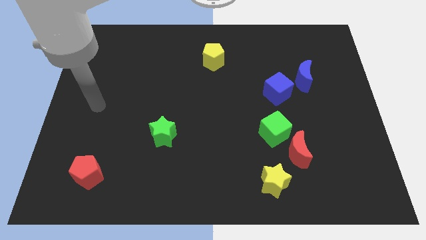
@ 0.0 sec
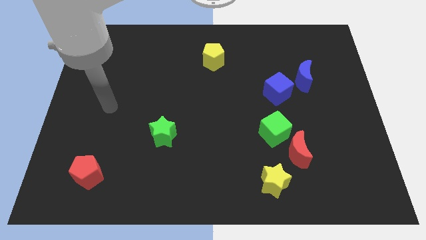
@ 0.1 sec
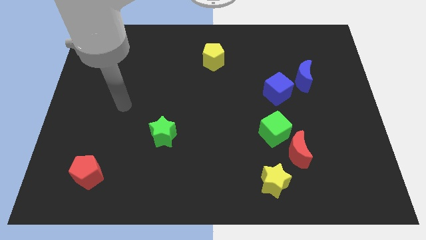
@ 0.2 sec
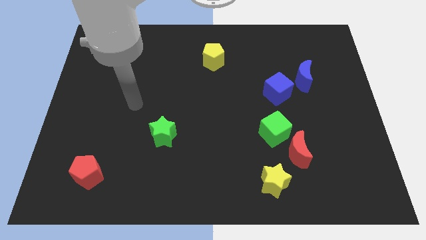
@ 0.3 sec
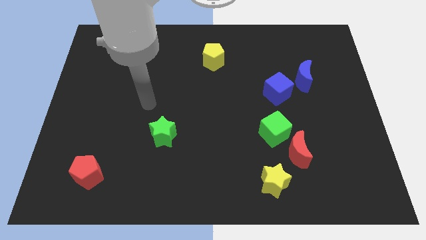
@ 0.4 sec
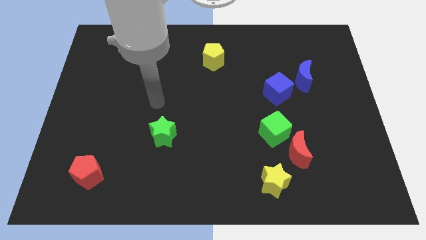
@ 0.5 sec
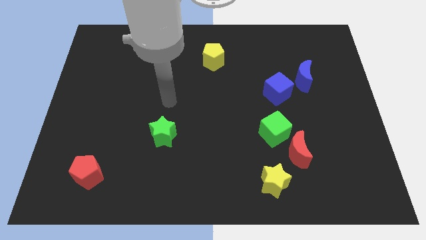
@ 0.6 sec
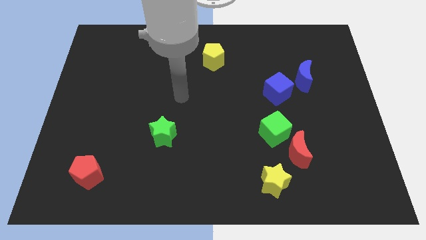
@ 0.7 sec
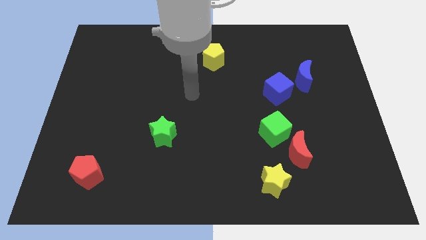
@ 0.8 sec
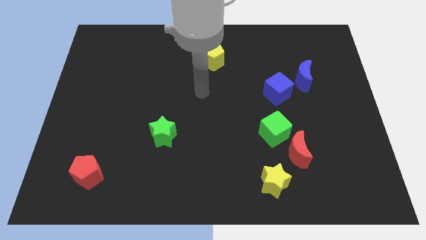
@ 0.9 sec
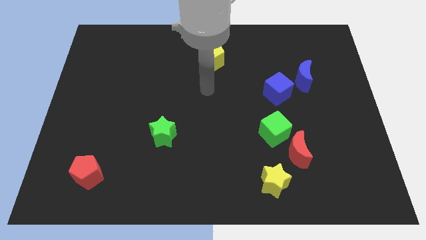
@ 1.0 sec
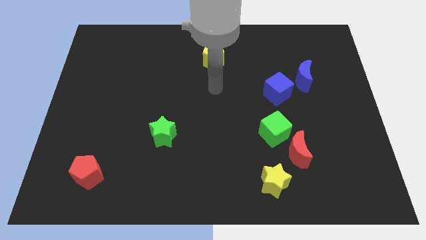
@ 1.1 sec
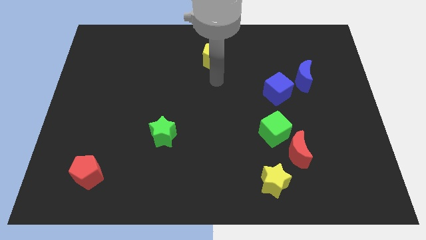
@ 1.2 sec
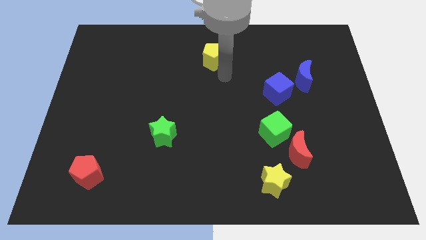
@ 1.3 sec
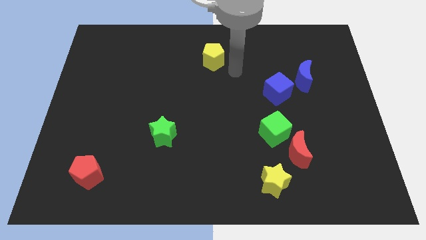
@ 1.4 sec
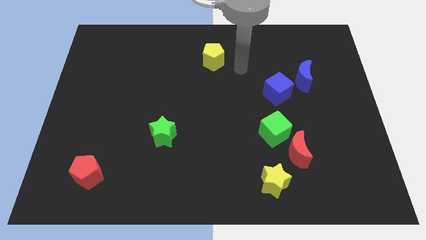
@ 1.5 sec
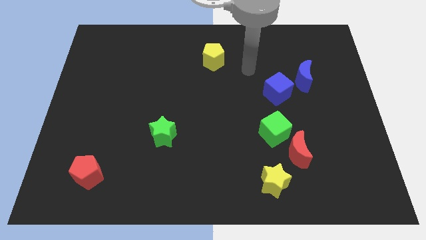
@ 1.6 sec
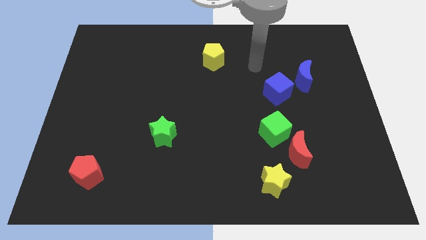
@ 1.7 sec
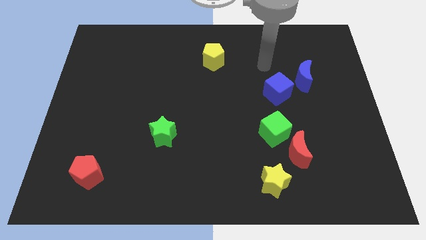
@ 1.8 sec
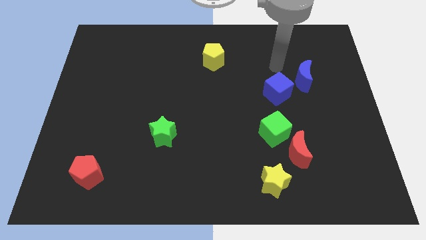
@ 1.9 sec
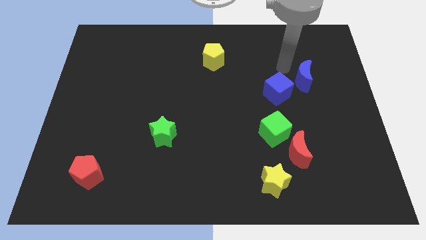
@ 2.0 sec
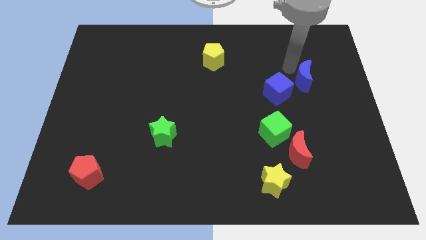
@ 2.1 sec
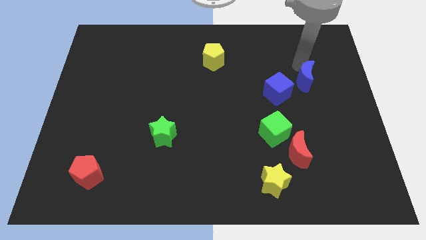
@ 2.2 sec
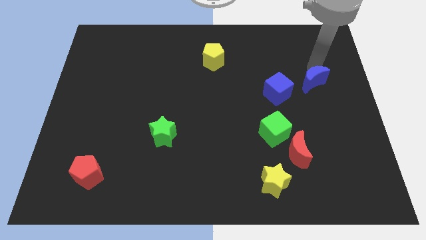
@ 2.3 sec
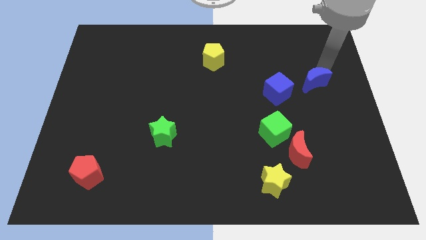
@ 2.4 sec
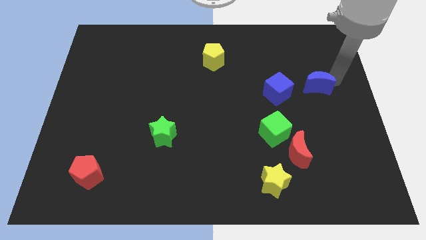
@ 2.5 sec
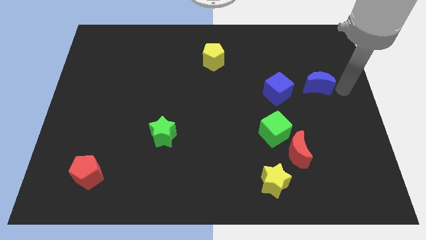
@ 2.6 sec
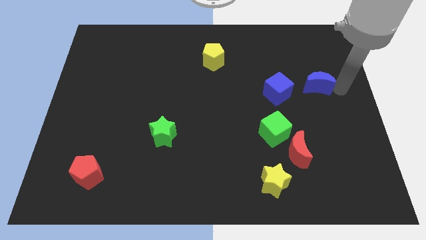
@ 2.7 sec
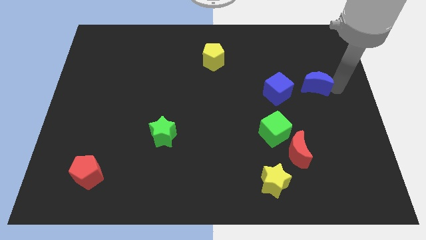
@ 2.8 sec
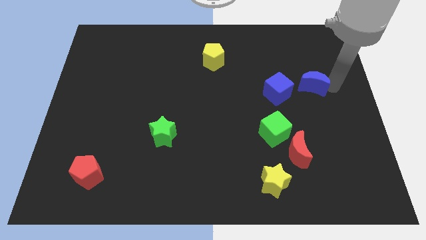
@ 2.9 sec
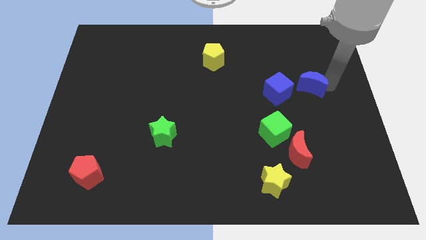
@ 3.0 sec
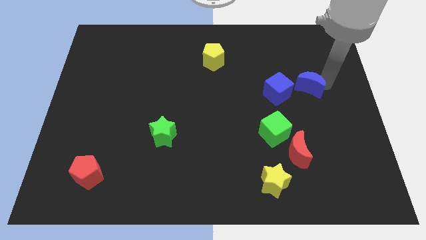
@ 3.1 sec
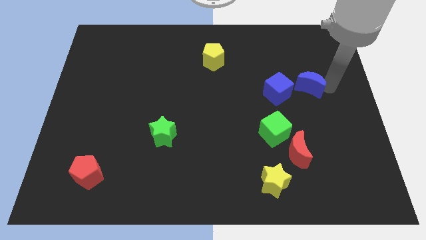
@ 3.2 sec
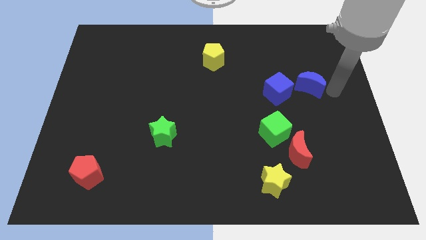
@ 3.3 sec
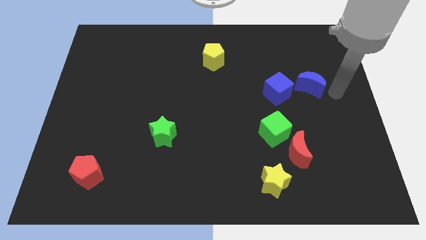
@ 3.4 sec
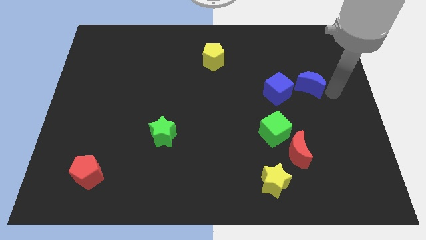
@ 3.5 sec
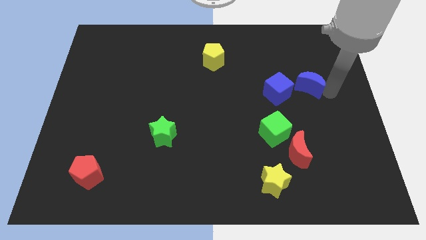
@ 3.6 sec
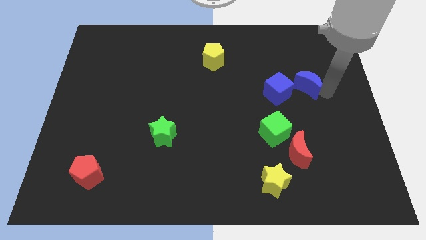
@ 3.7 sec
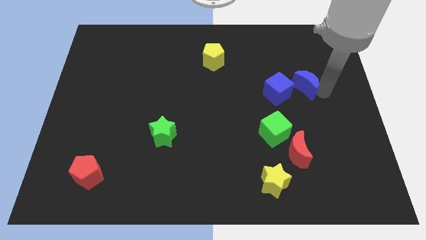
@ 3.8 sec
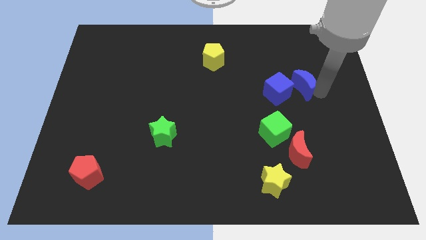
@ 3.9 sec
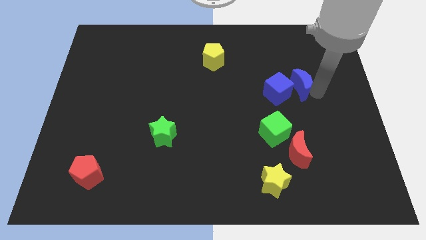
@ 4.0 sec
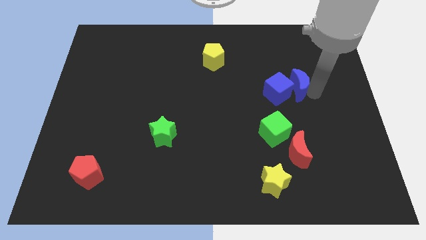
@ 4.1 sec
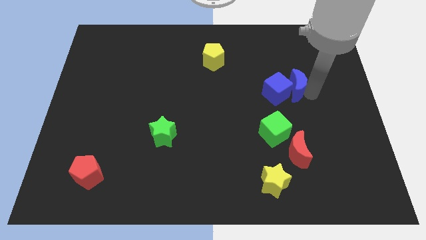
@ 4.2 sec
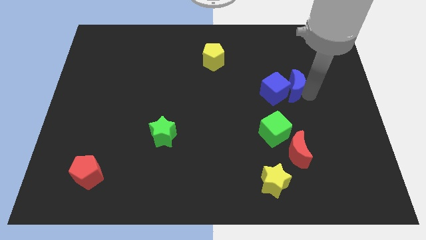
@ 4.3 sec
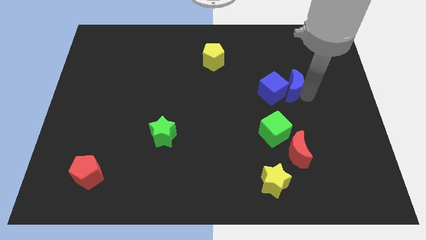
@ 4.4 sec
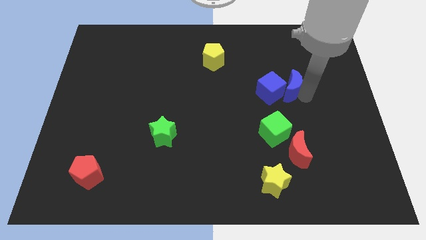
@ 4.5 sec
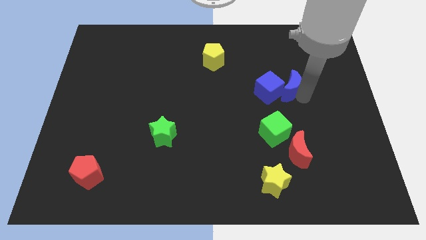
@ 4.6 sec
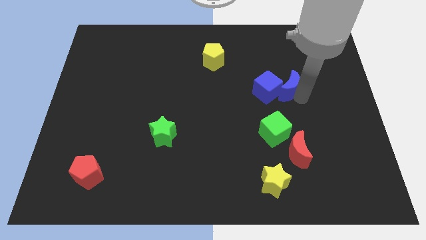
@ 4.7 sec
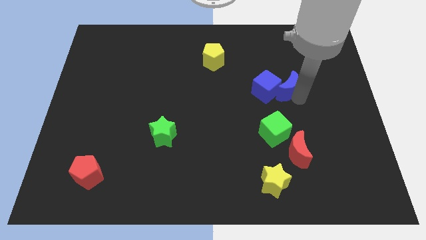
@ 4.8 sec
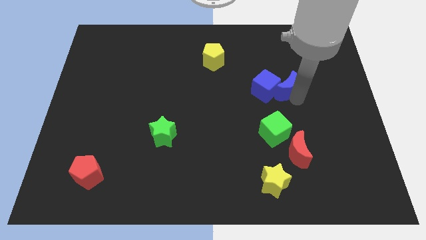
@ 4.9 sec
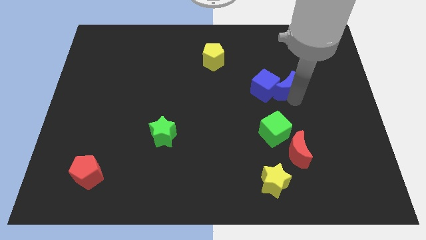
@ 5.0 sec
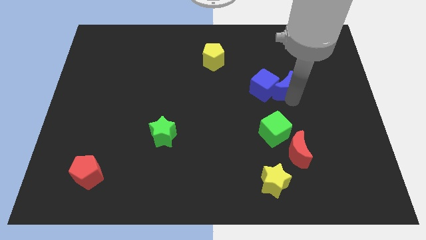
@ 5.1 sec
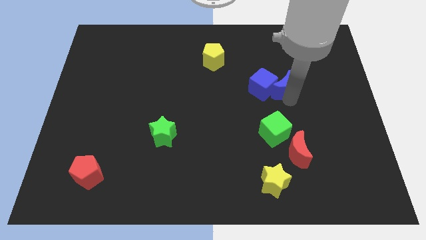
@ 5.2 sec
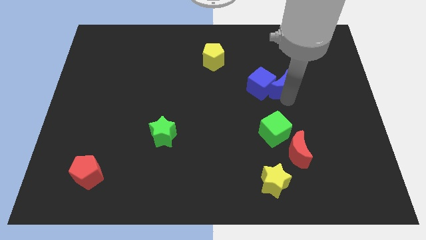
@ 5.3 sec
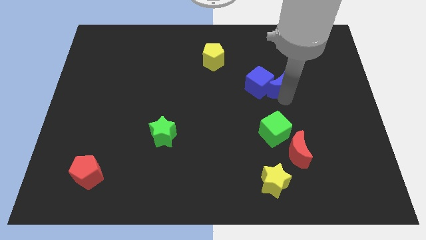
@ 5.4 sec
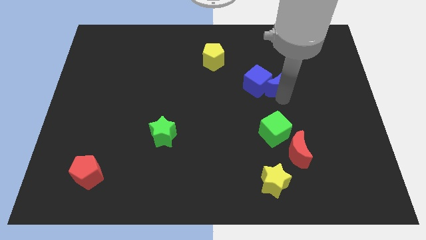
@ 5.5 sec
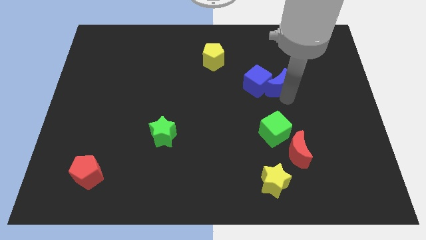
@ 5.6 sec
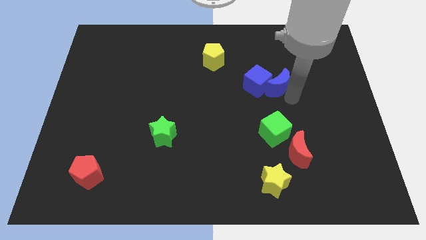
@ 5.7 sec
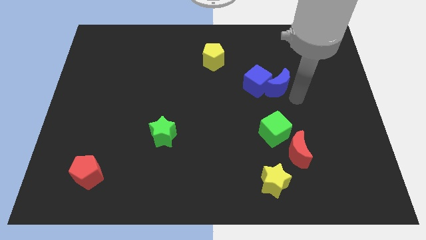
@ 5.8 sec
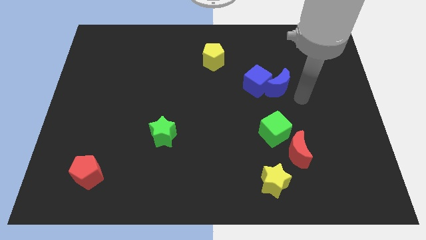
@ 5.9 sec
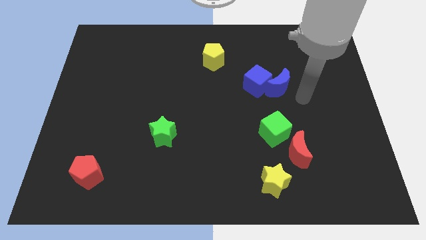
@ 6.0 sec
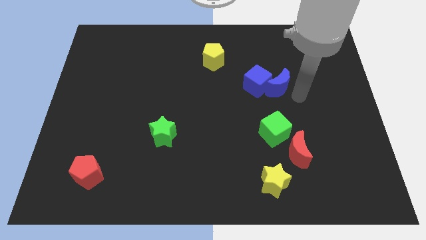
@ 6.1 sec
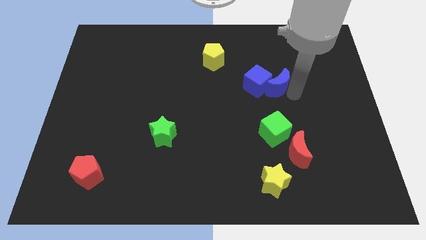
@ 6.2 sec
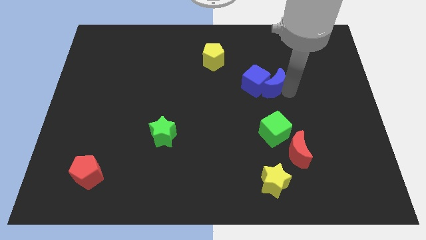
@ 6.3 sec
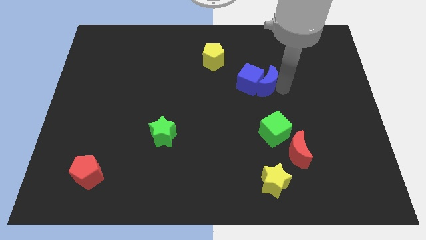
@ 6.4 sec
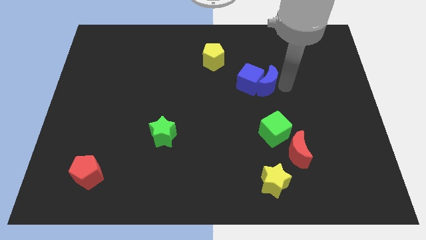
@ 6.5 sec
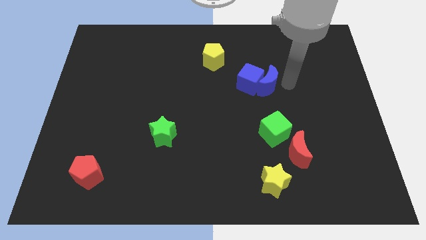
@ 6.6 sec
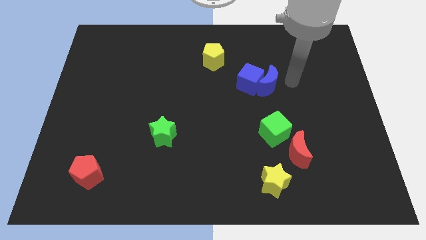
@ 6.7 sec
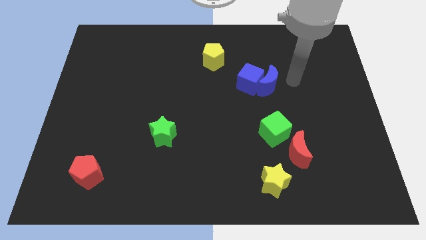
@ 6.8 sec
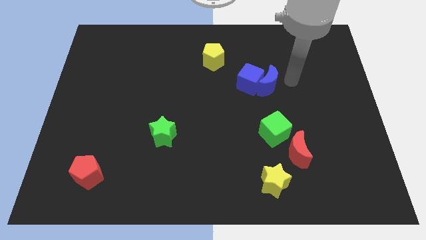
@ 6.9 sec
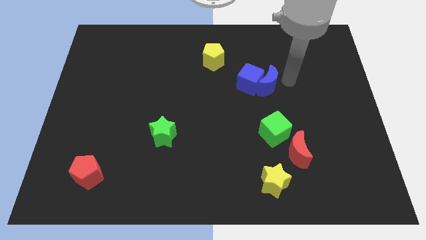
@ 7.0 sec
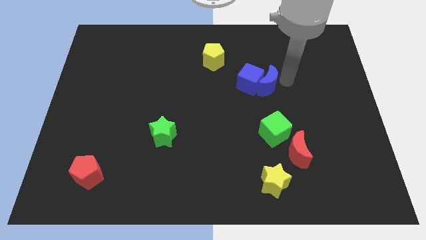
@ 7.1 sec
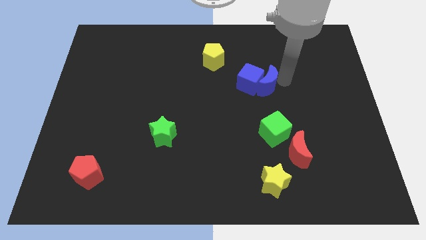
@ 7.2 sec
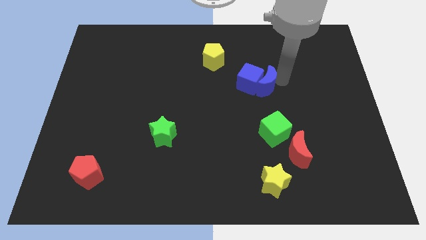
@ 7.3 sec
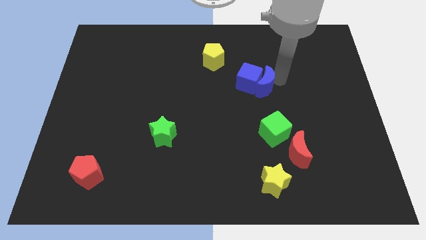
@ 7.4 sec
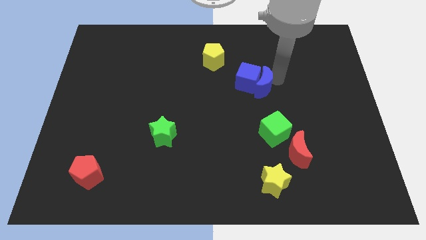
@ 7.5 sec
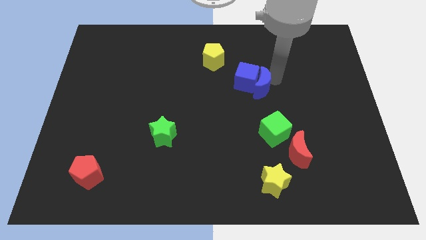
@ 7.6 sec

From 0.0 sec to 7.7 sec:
push the blue moon to the center of the board
